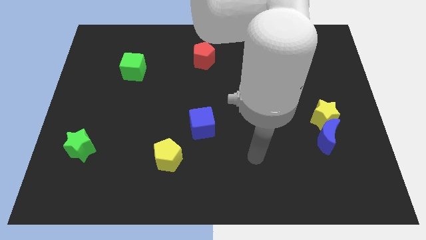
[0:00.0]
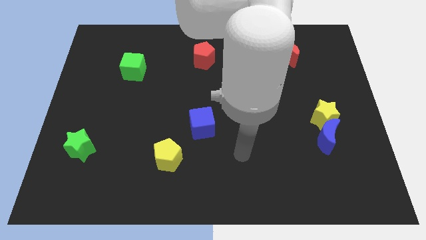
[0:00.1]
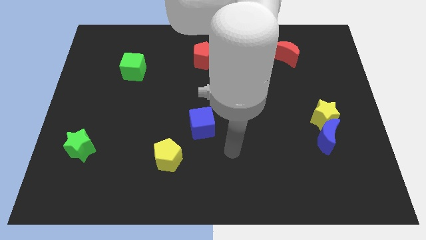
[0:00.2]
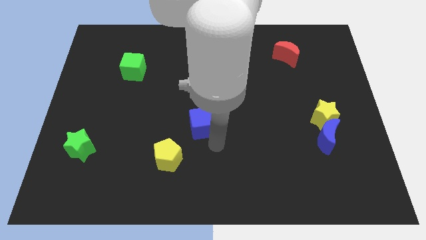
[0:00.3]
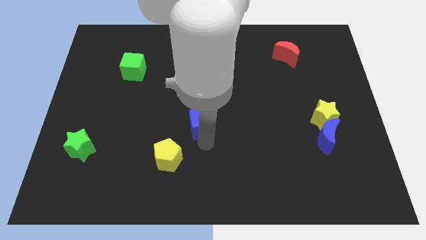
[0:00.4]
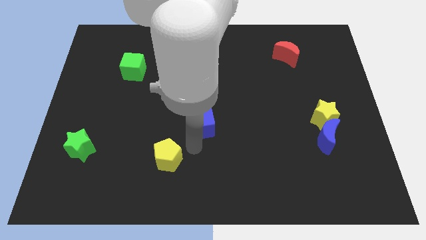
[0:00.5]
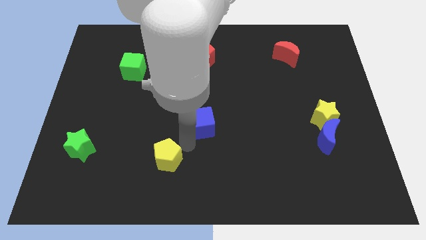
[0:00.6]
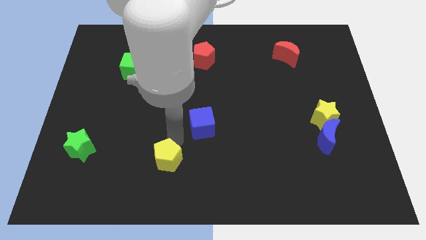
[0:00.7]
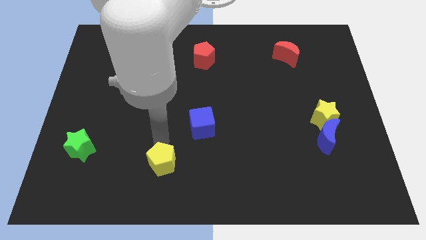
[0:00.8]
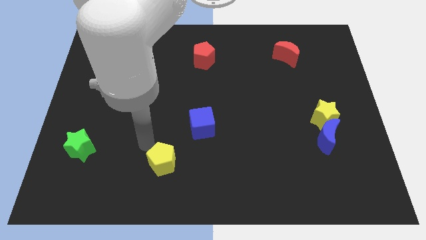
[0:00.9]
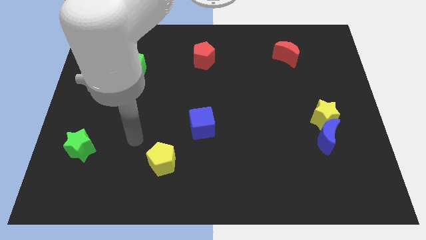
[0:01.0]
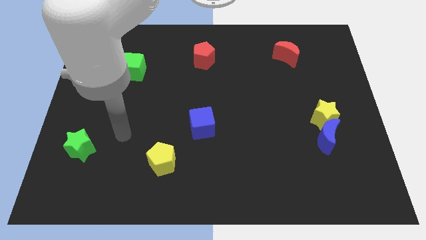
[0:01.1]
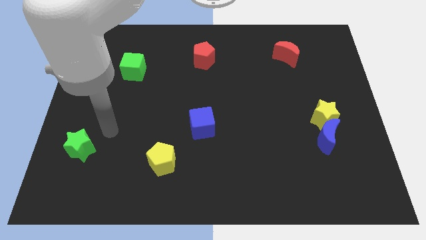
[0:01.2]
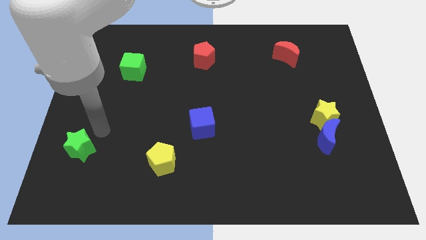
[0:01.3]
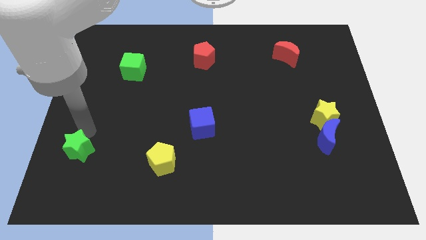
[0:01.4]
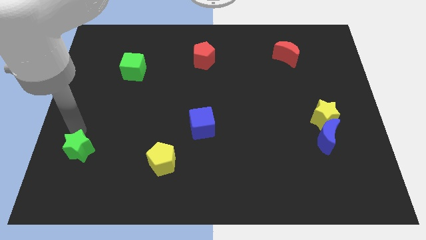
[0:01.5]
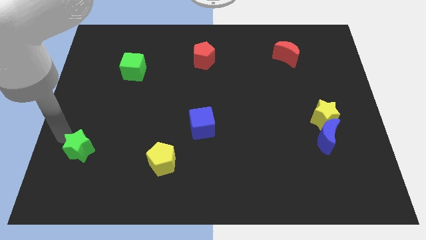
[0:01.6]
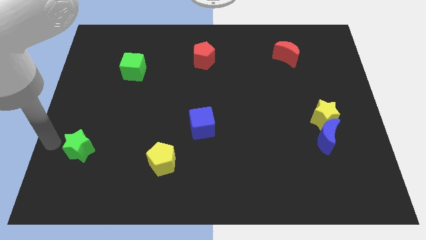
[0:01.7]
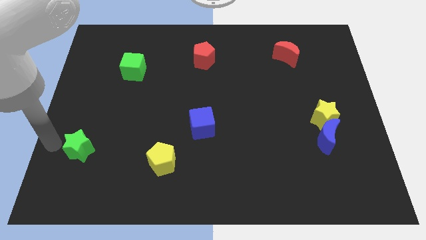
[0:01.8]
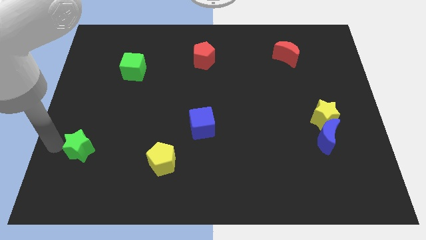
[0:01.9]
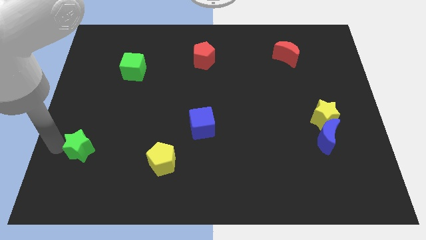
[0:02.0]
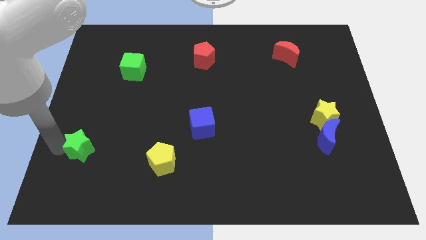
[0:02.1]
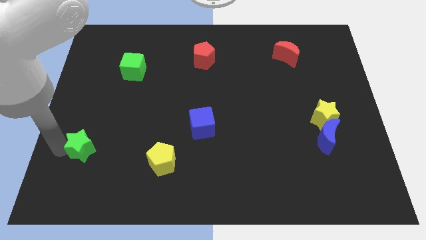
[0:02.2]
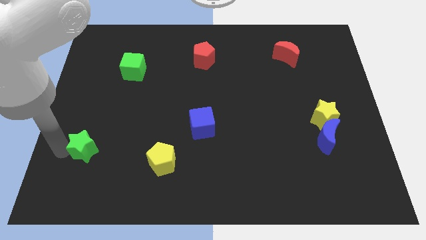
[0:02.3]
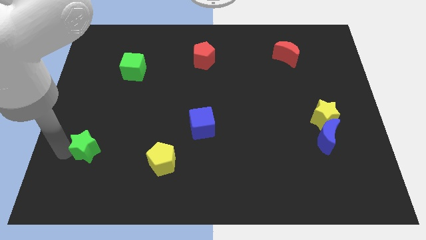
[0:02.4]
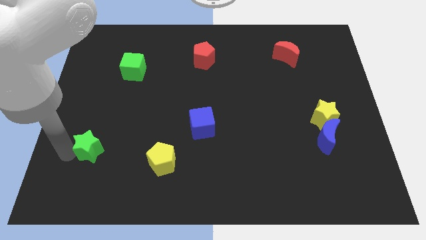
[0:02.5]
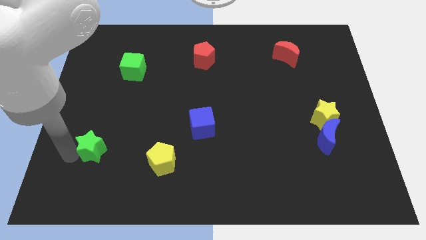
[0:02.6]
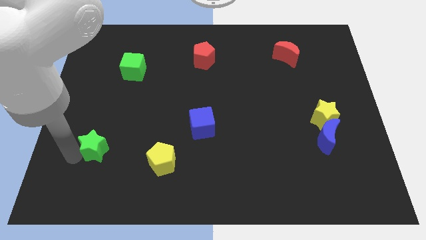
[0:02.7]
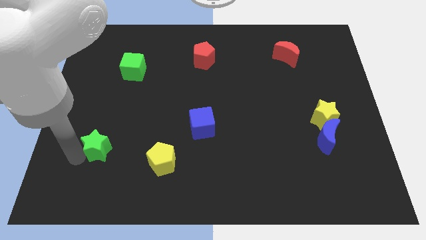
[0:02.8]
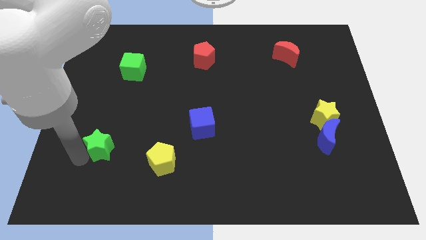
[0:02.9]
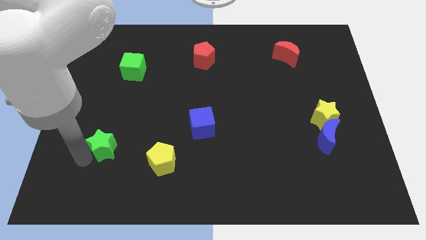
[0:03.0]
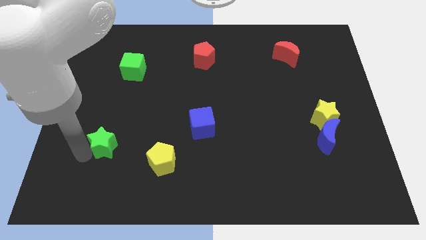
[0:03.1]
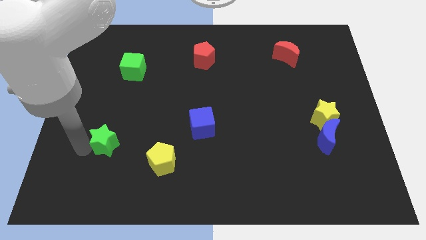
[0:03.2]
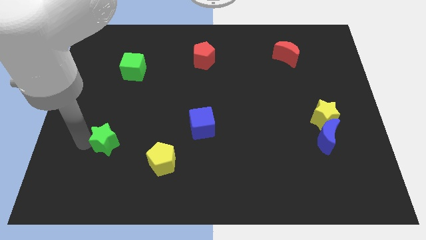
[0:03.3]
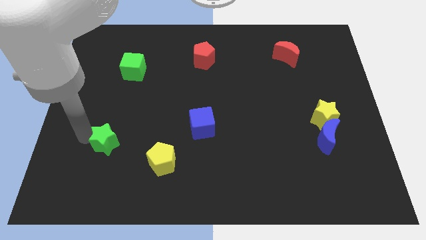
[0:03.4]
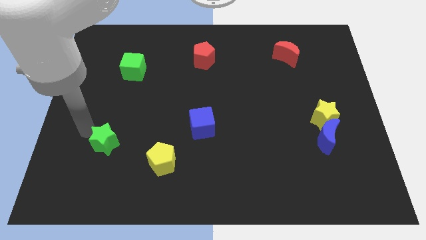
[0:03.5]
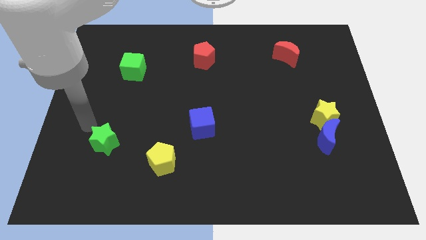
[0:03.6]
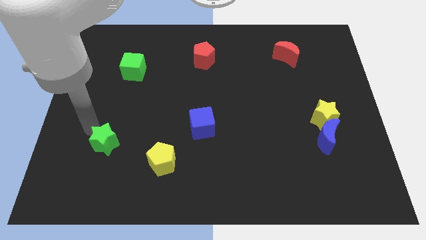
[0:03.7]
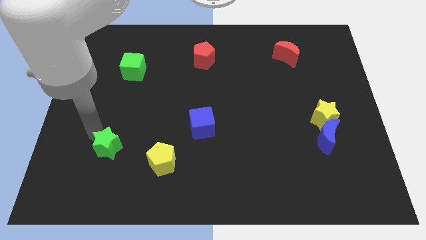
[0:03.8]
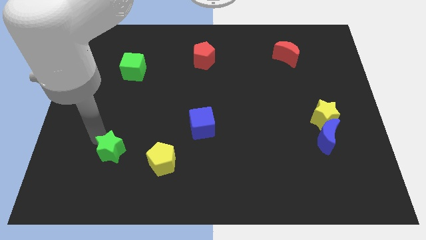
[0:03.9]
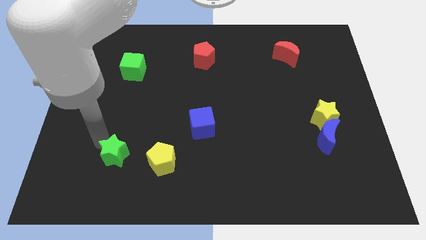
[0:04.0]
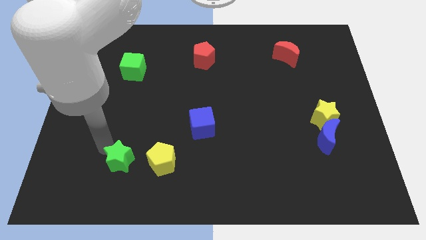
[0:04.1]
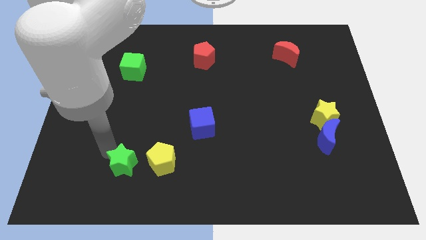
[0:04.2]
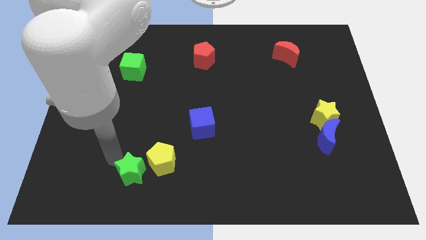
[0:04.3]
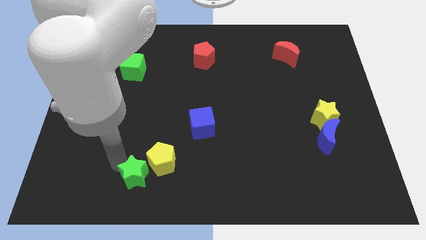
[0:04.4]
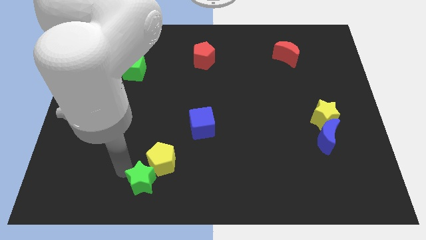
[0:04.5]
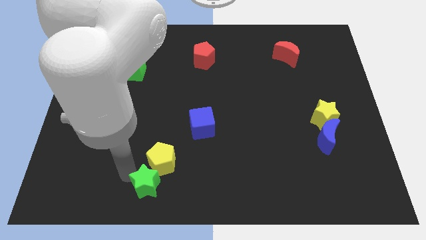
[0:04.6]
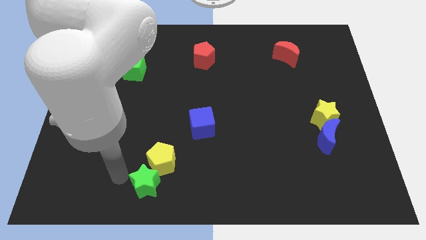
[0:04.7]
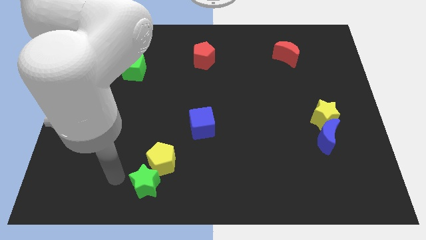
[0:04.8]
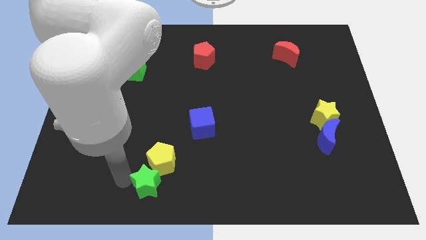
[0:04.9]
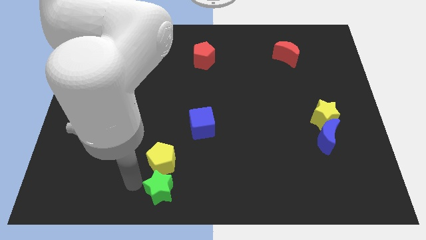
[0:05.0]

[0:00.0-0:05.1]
move the green star to the bottom

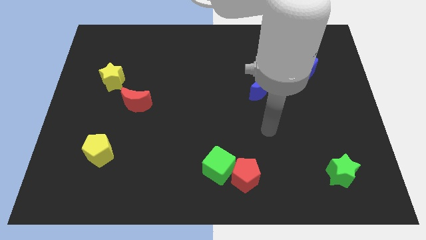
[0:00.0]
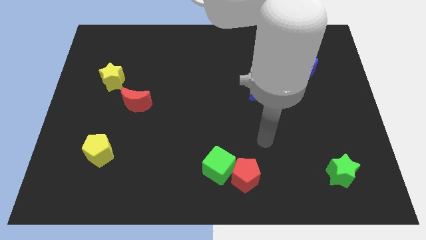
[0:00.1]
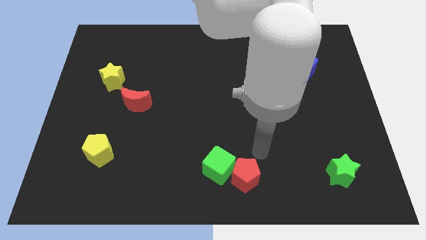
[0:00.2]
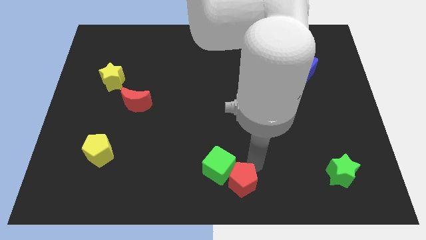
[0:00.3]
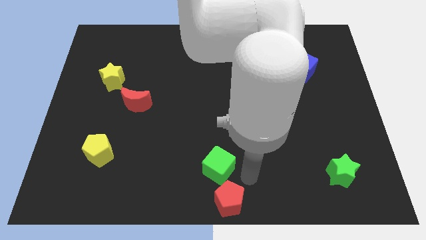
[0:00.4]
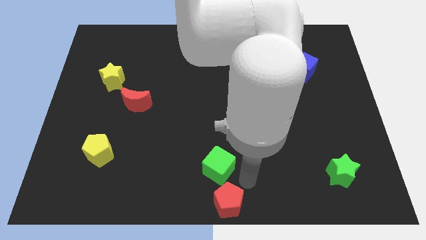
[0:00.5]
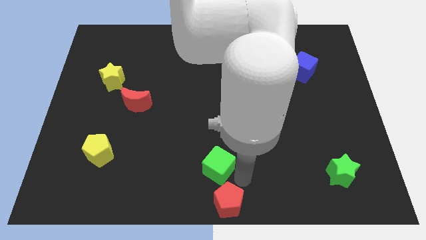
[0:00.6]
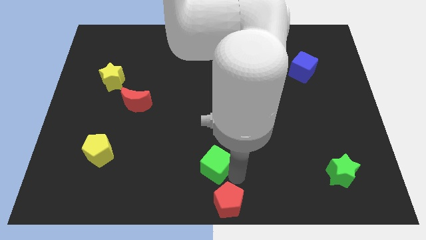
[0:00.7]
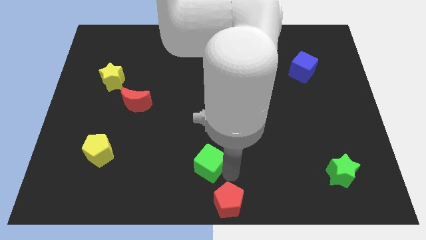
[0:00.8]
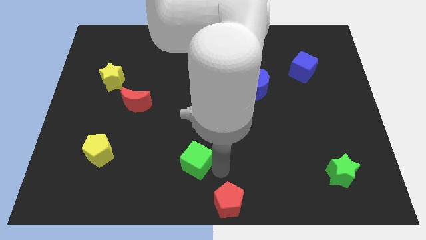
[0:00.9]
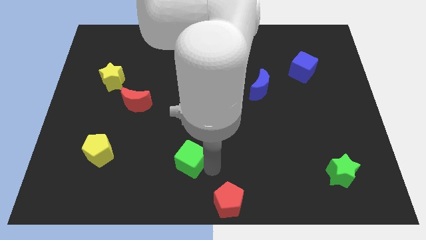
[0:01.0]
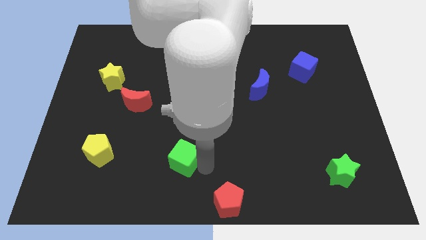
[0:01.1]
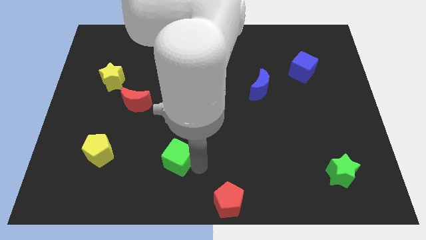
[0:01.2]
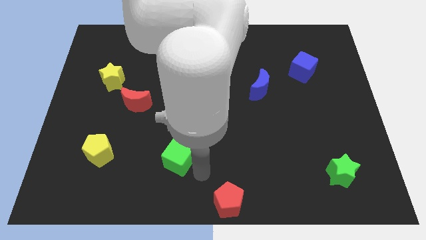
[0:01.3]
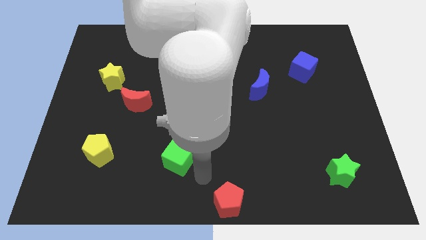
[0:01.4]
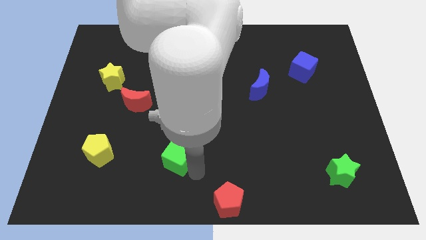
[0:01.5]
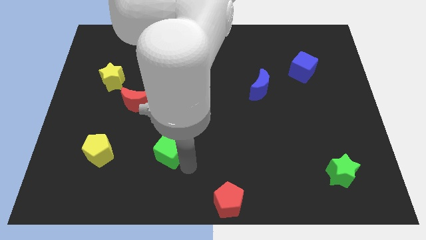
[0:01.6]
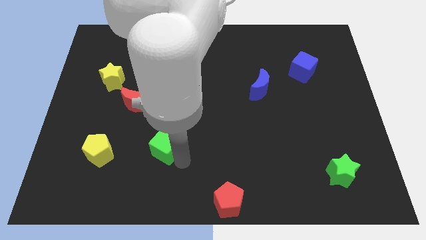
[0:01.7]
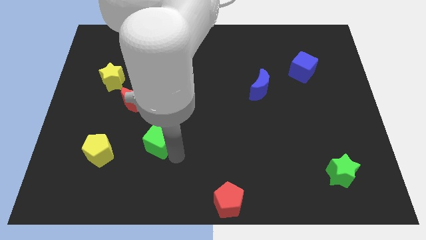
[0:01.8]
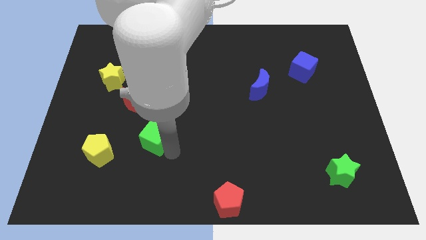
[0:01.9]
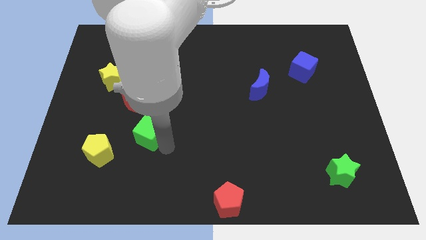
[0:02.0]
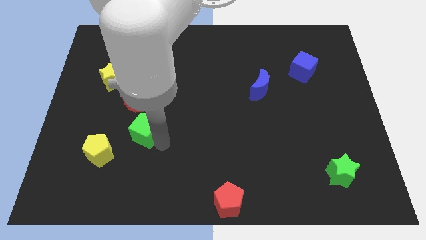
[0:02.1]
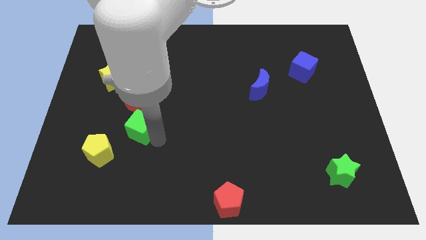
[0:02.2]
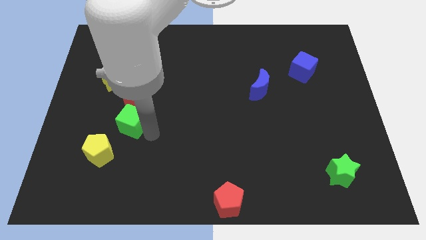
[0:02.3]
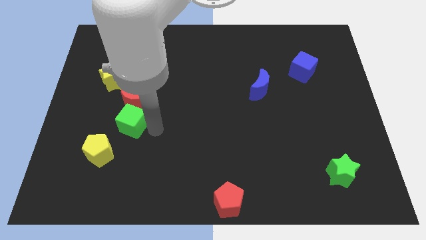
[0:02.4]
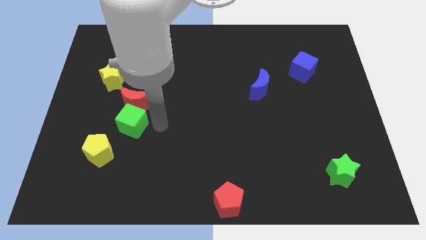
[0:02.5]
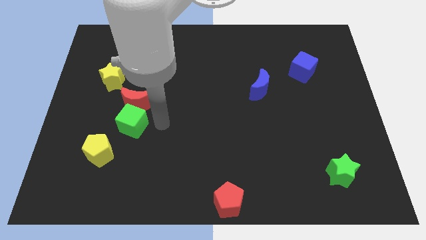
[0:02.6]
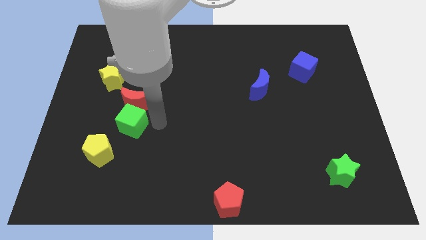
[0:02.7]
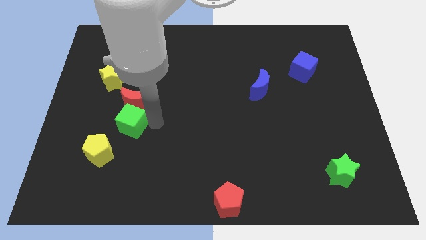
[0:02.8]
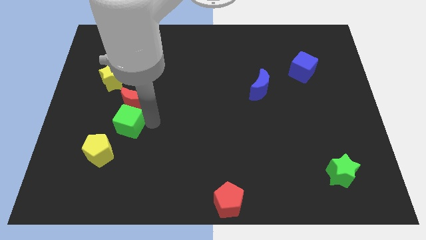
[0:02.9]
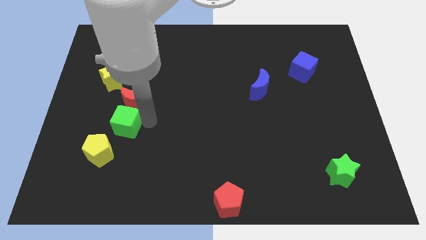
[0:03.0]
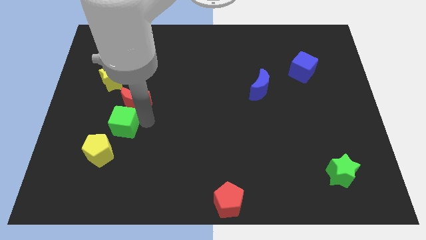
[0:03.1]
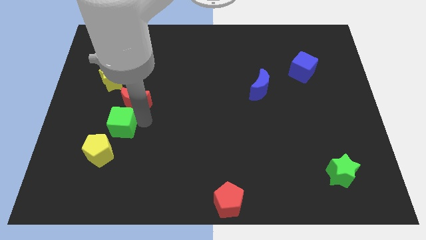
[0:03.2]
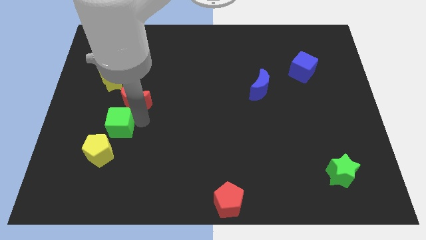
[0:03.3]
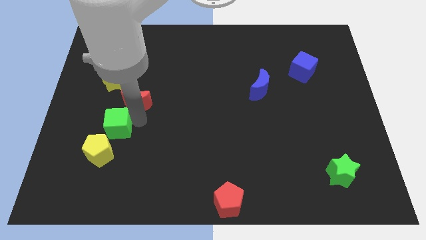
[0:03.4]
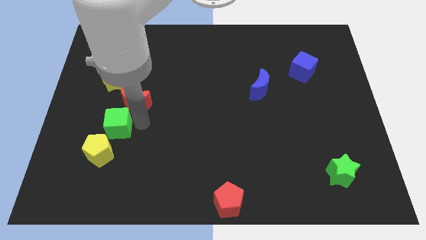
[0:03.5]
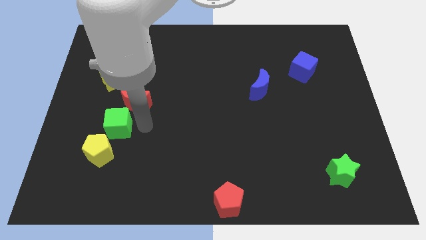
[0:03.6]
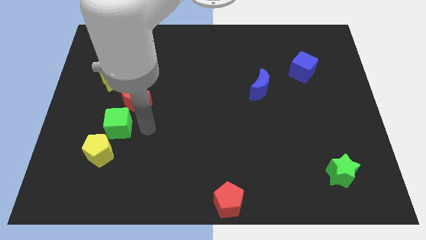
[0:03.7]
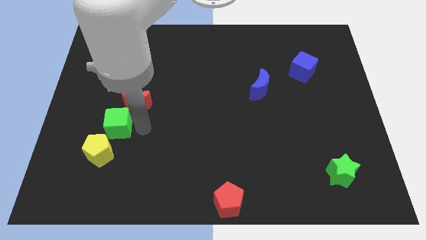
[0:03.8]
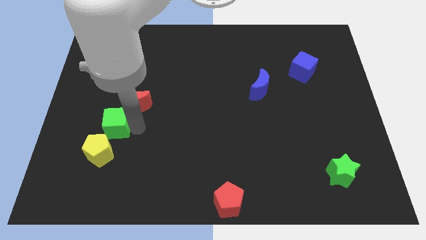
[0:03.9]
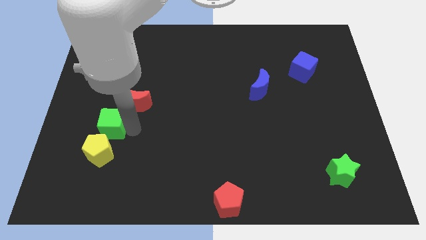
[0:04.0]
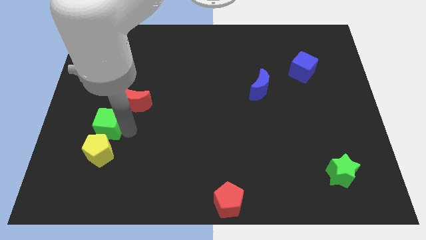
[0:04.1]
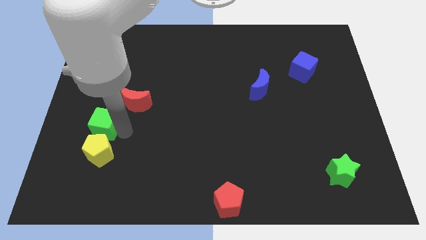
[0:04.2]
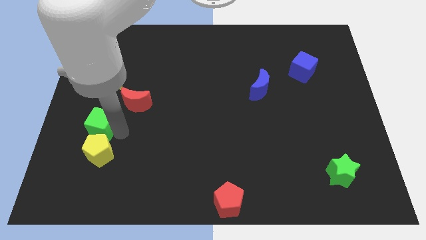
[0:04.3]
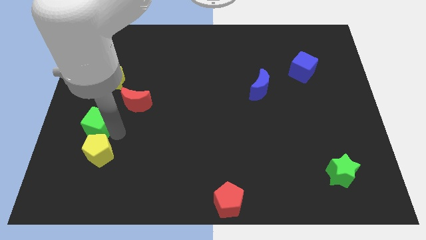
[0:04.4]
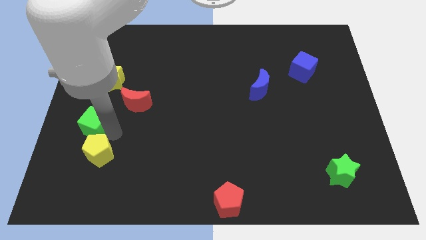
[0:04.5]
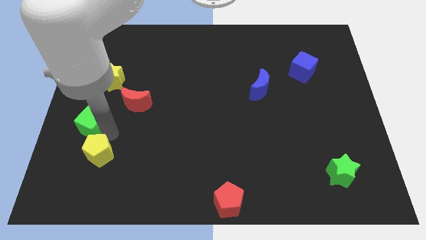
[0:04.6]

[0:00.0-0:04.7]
move the green cube to the left side
